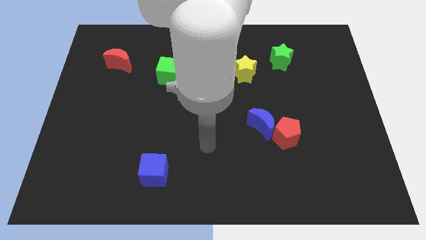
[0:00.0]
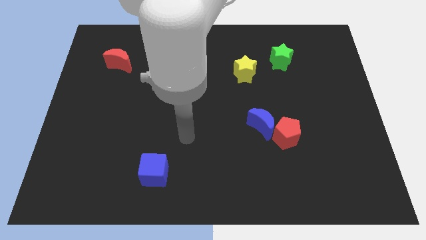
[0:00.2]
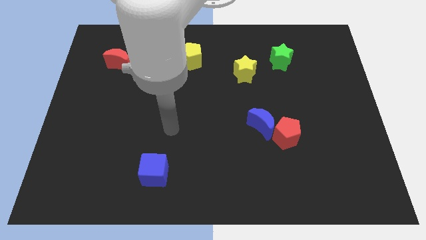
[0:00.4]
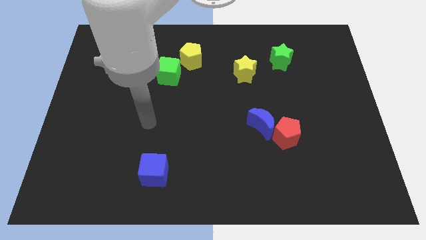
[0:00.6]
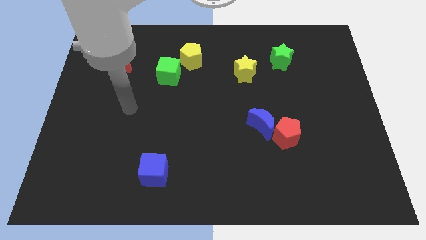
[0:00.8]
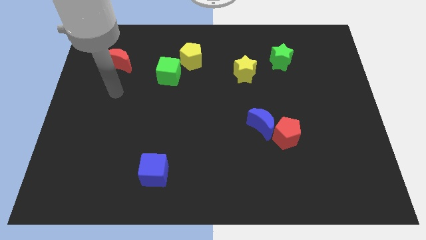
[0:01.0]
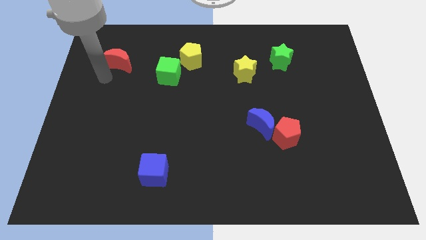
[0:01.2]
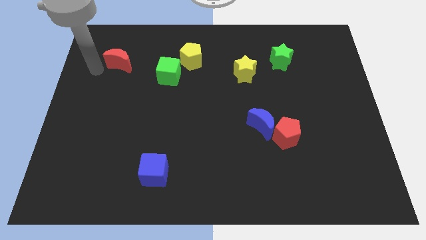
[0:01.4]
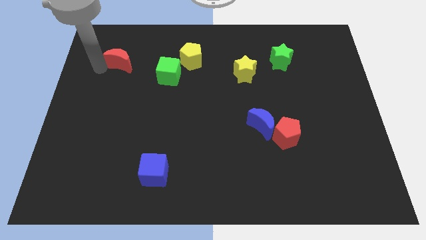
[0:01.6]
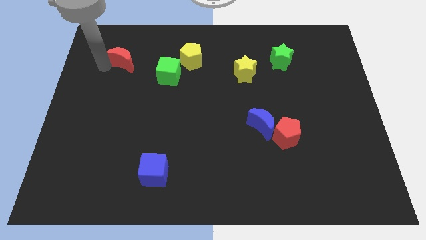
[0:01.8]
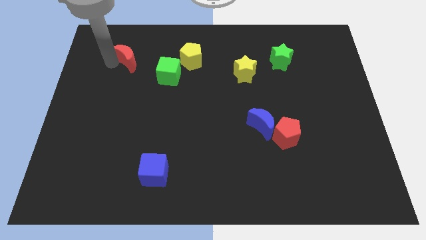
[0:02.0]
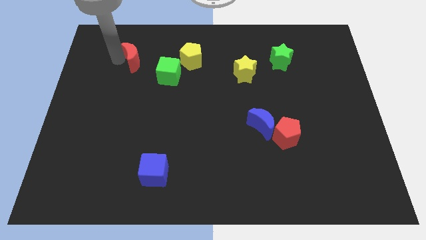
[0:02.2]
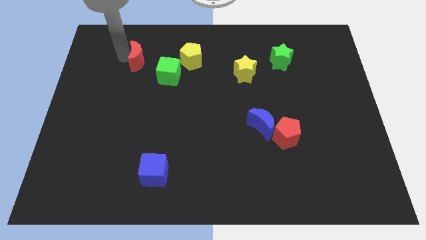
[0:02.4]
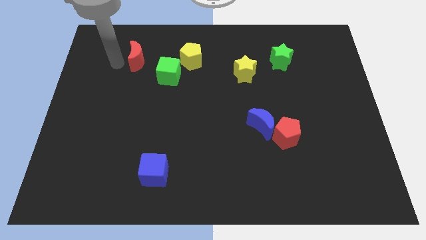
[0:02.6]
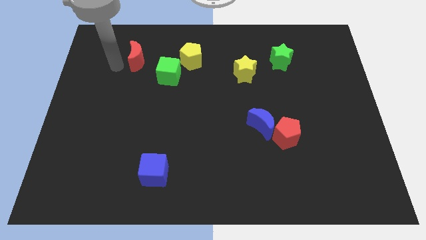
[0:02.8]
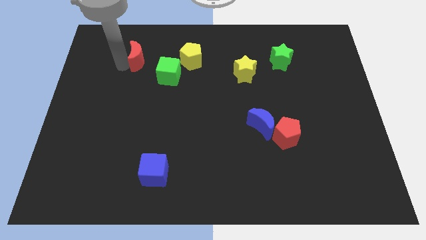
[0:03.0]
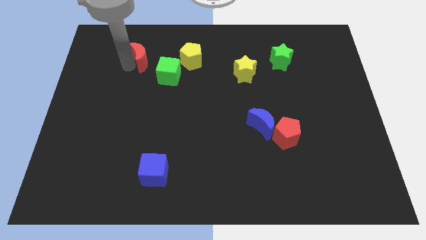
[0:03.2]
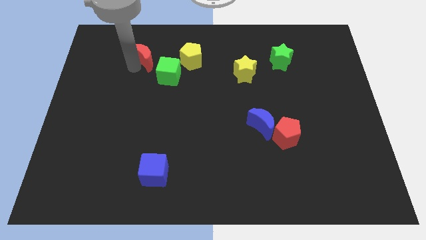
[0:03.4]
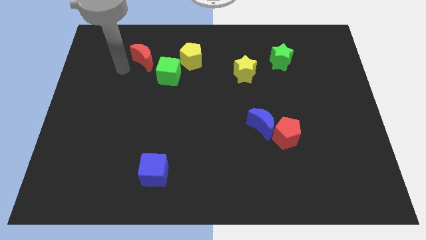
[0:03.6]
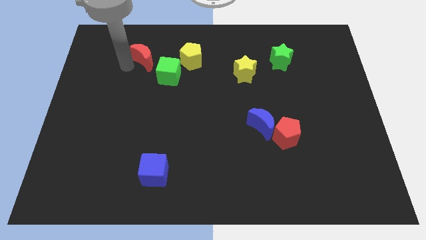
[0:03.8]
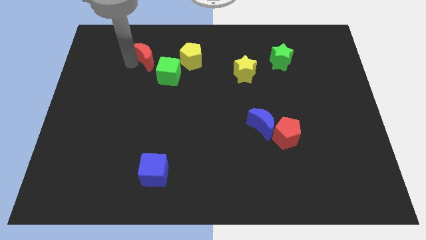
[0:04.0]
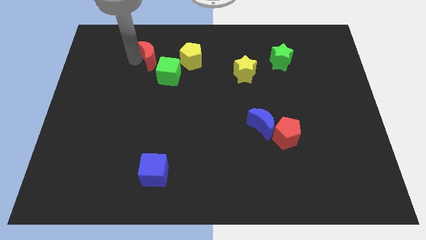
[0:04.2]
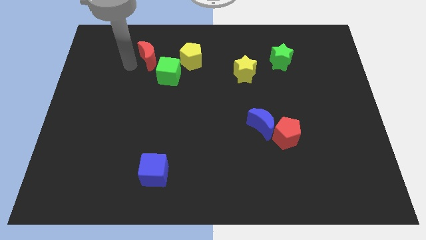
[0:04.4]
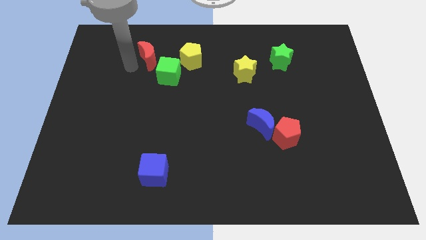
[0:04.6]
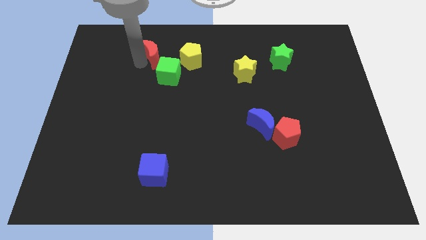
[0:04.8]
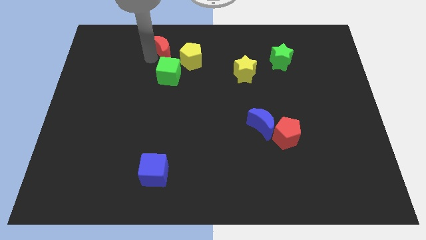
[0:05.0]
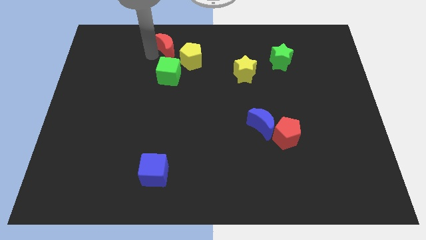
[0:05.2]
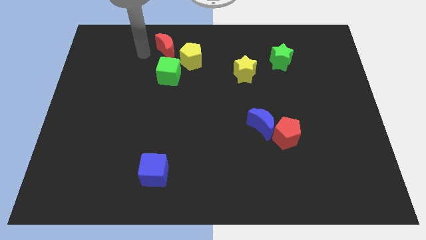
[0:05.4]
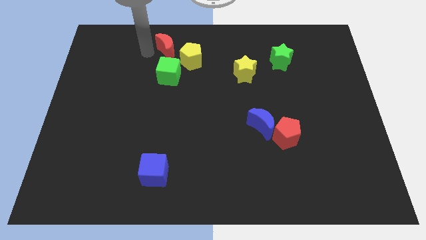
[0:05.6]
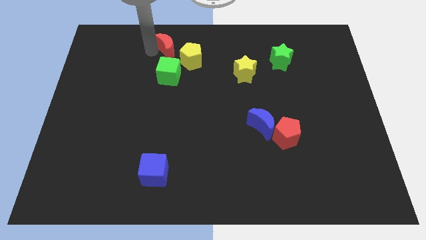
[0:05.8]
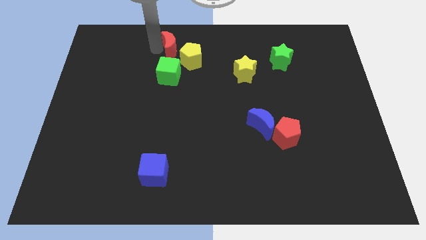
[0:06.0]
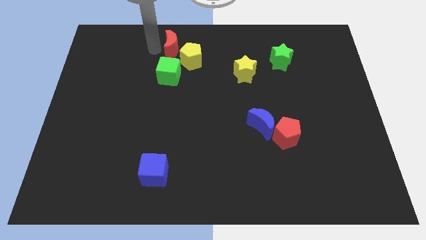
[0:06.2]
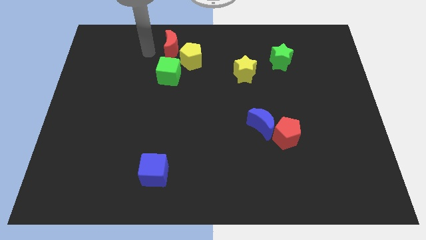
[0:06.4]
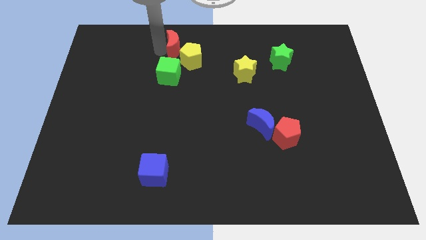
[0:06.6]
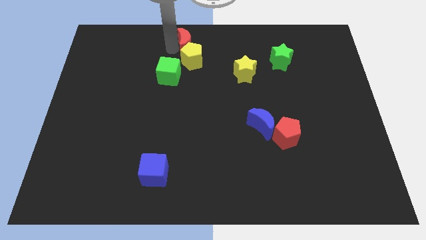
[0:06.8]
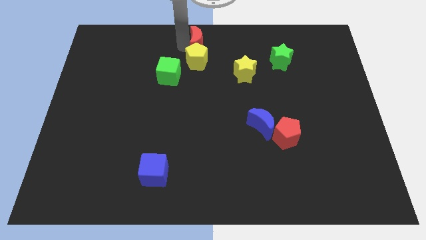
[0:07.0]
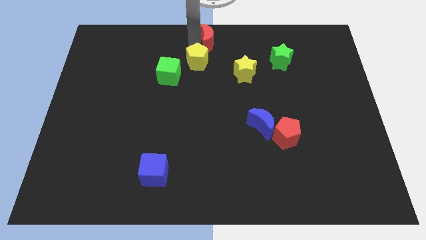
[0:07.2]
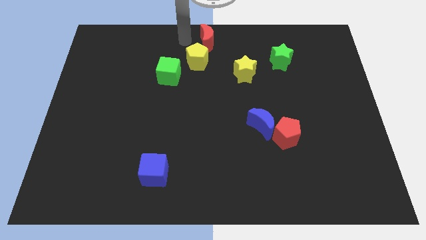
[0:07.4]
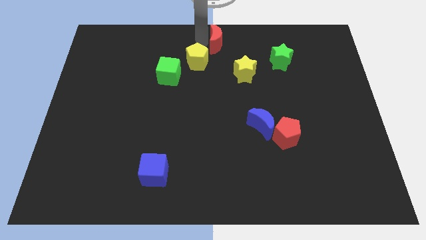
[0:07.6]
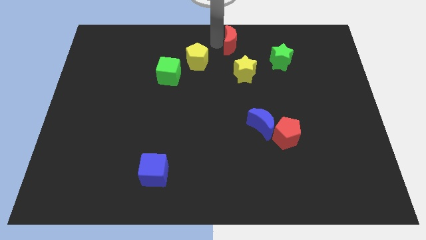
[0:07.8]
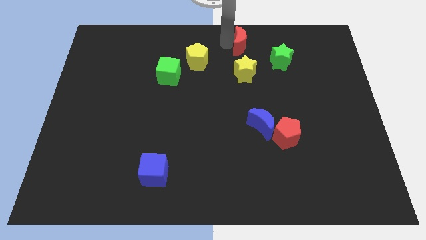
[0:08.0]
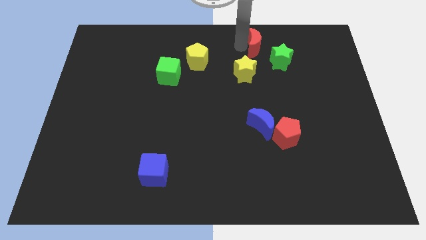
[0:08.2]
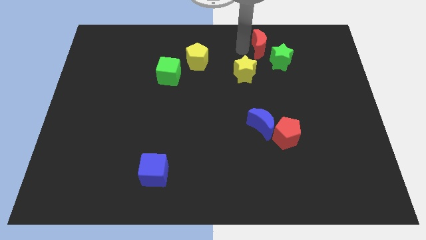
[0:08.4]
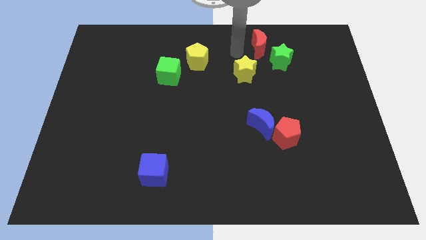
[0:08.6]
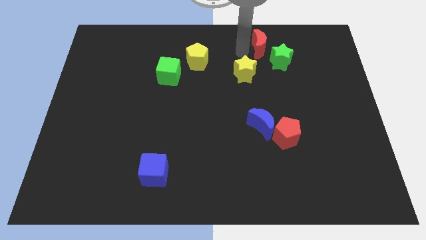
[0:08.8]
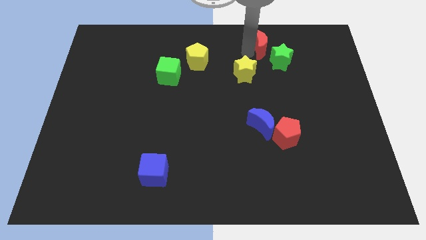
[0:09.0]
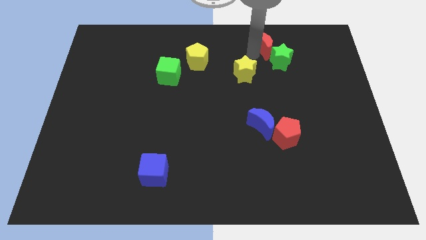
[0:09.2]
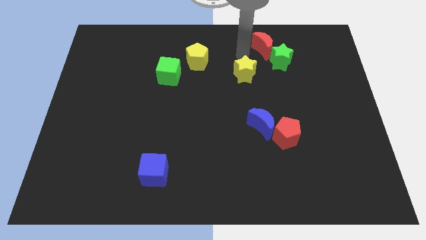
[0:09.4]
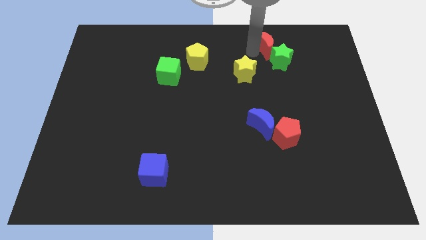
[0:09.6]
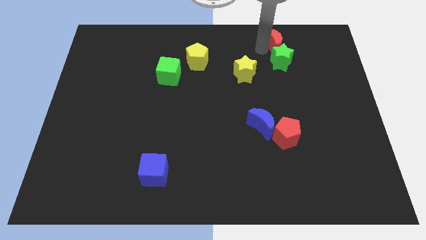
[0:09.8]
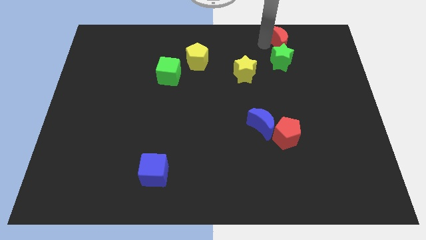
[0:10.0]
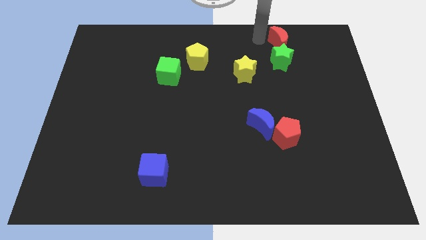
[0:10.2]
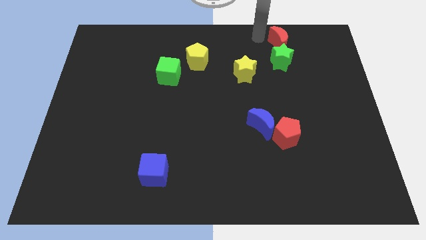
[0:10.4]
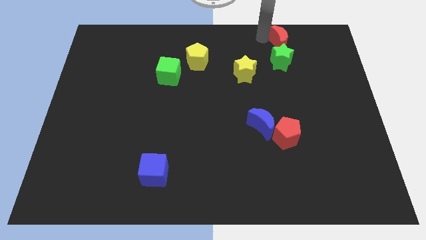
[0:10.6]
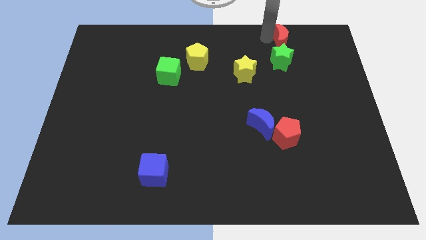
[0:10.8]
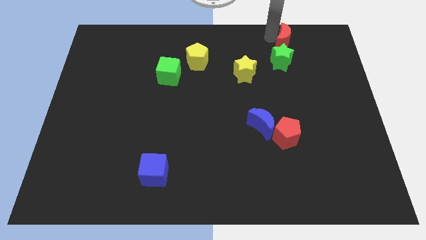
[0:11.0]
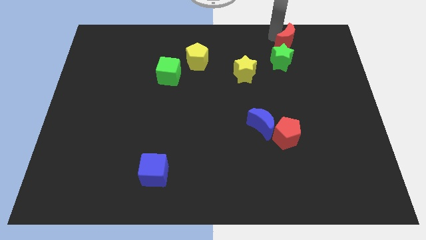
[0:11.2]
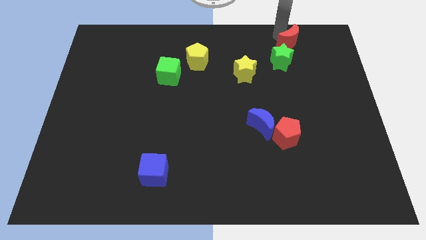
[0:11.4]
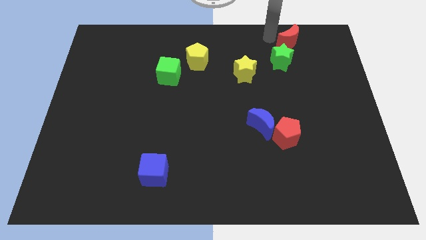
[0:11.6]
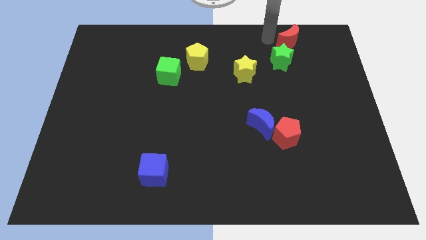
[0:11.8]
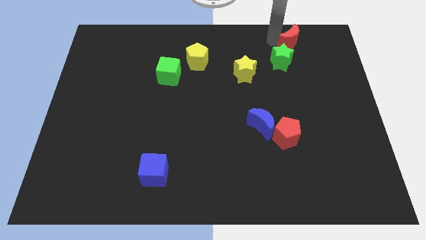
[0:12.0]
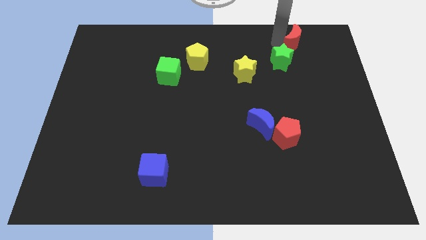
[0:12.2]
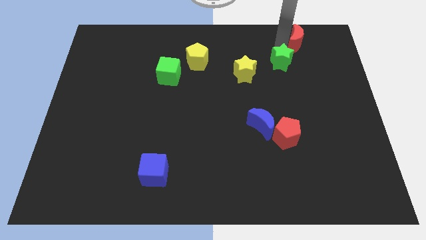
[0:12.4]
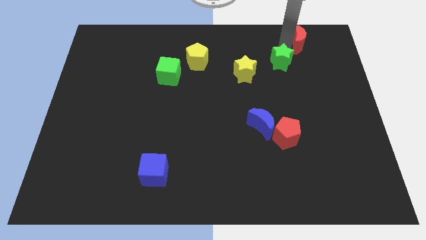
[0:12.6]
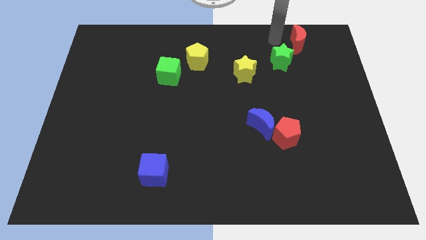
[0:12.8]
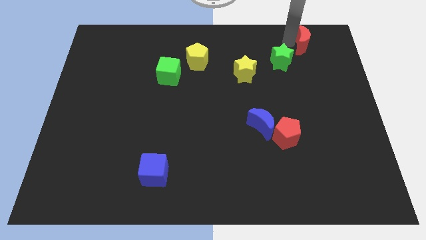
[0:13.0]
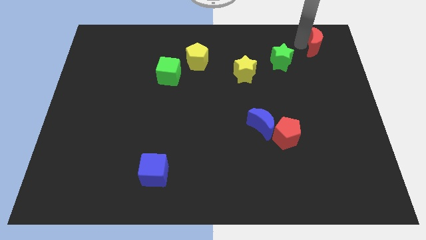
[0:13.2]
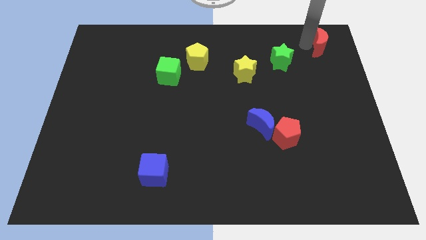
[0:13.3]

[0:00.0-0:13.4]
slide the red moon to the top right
